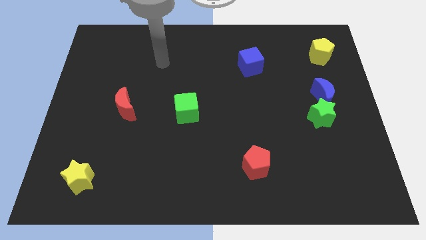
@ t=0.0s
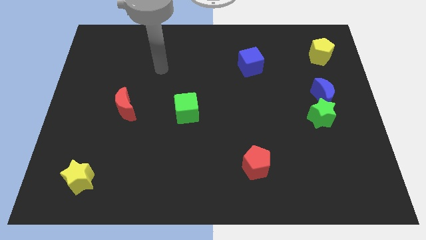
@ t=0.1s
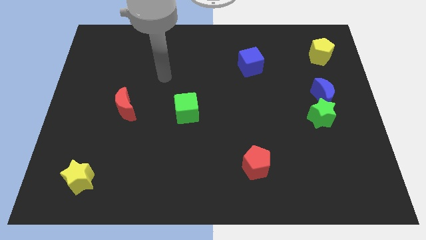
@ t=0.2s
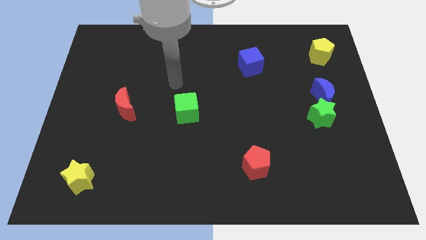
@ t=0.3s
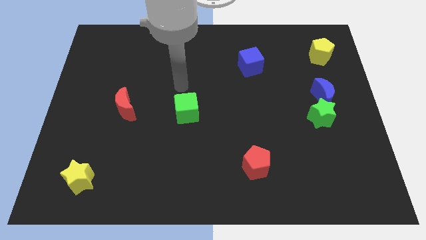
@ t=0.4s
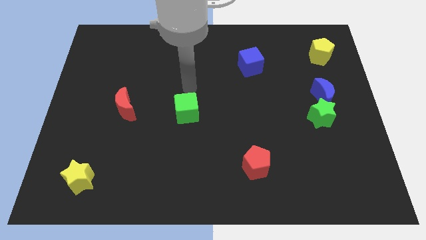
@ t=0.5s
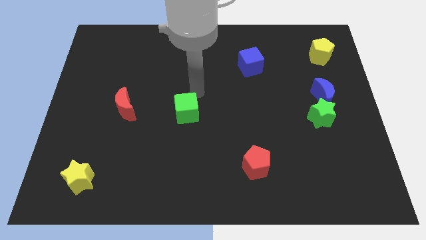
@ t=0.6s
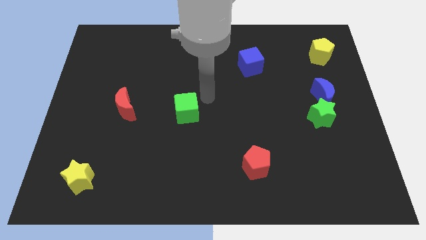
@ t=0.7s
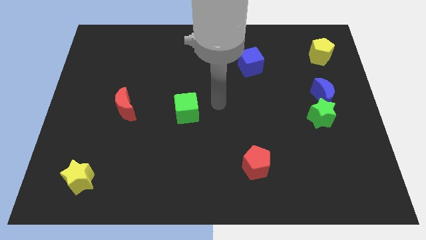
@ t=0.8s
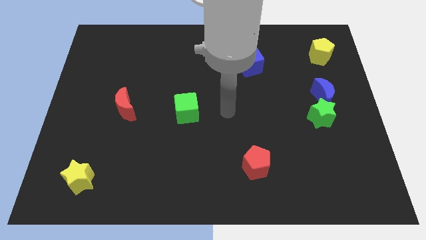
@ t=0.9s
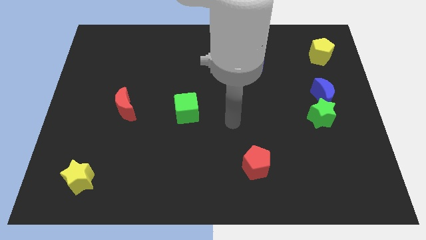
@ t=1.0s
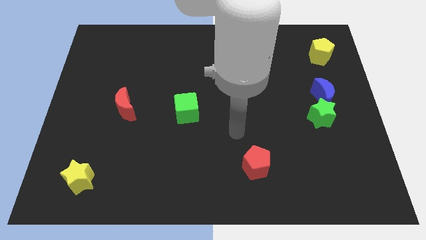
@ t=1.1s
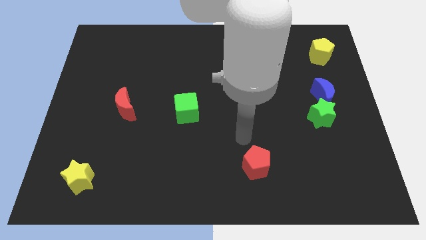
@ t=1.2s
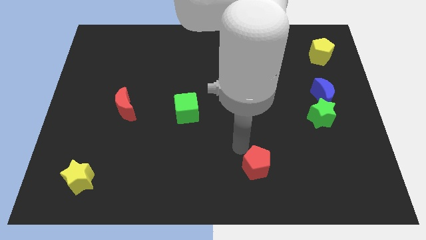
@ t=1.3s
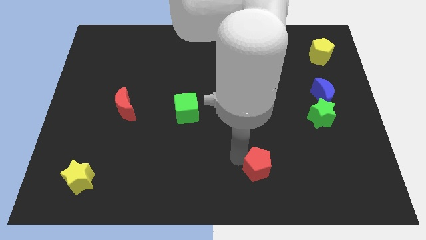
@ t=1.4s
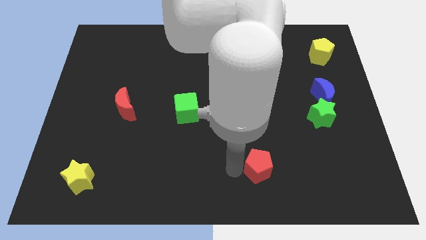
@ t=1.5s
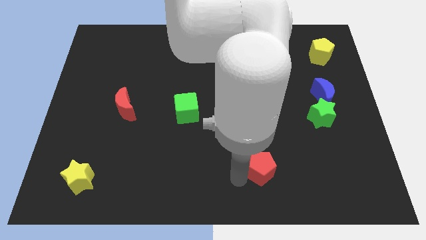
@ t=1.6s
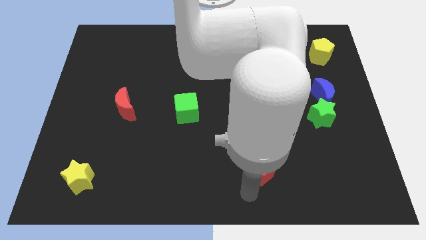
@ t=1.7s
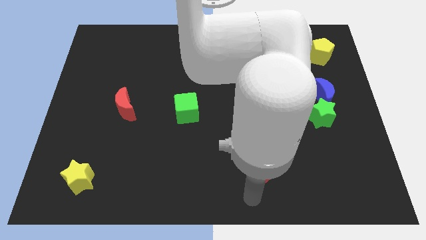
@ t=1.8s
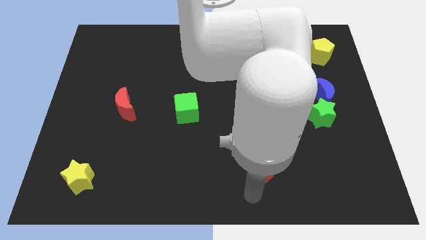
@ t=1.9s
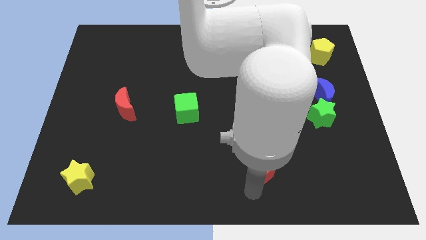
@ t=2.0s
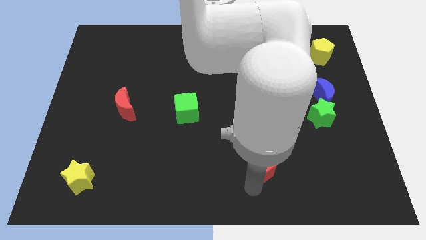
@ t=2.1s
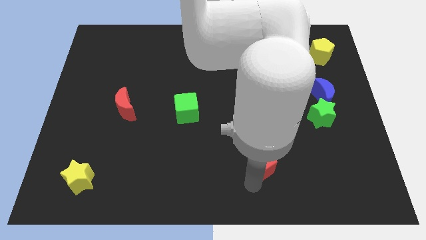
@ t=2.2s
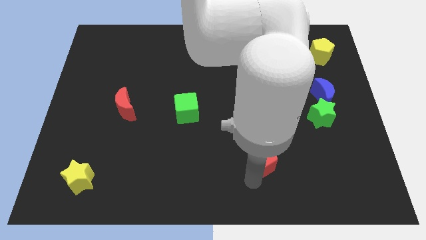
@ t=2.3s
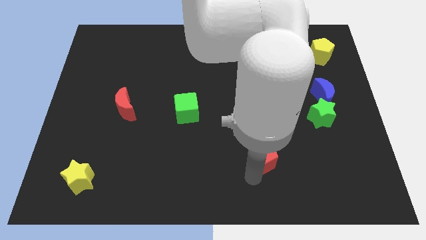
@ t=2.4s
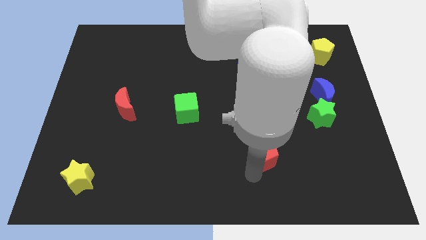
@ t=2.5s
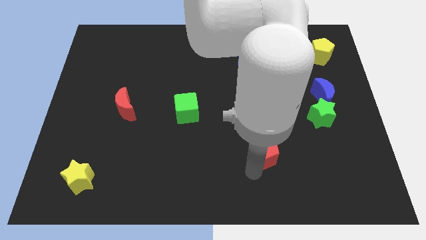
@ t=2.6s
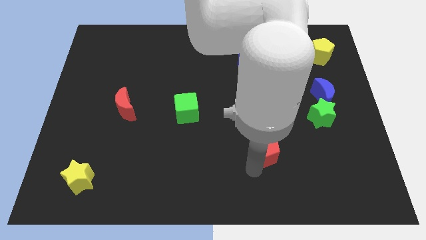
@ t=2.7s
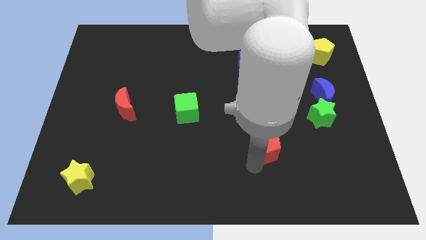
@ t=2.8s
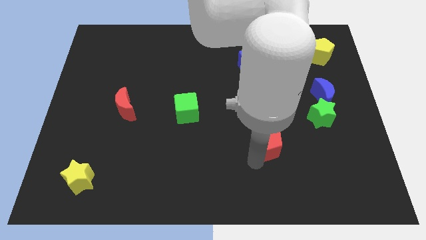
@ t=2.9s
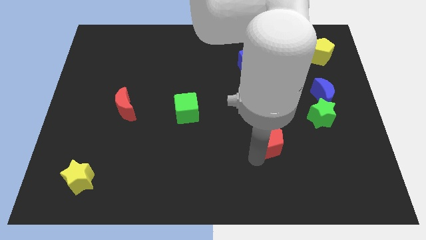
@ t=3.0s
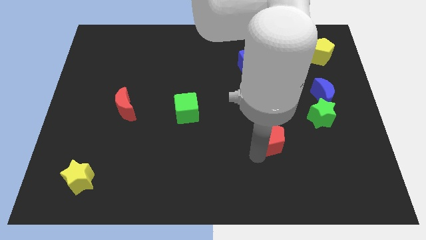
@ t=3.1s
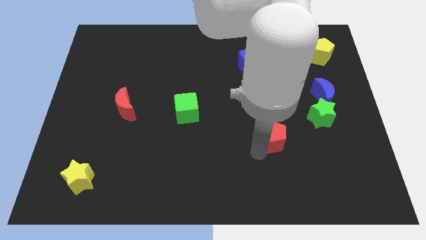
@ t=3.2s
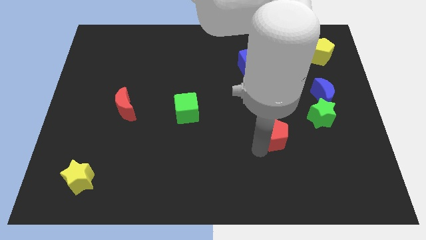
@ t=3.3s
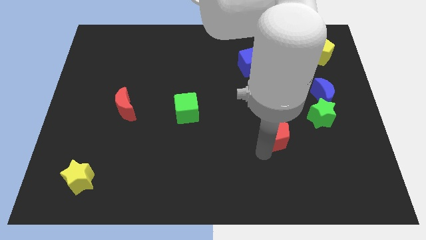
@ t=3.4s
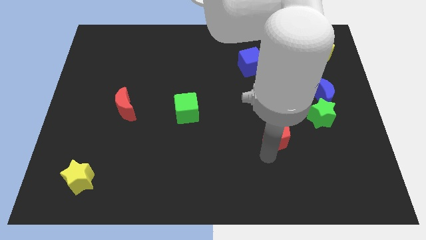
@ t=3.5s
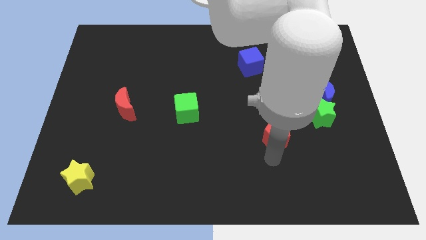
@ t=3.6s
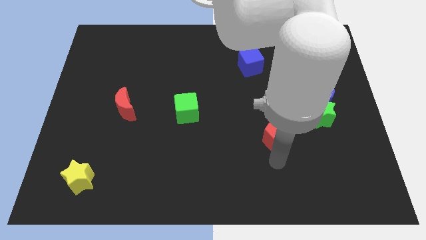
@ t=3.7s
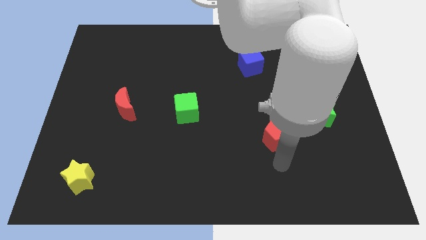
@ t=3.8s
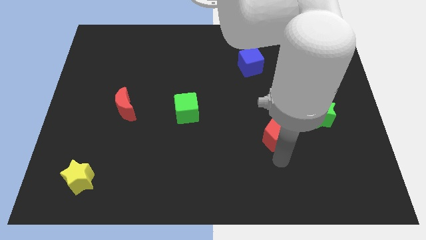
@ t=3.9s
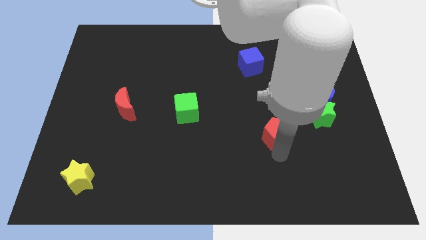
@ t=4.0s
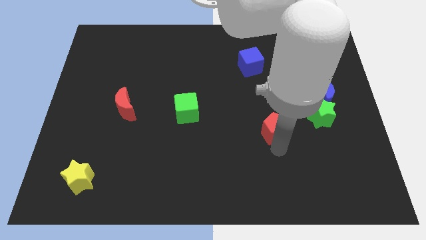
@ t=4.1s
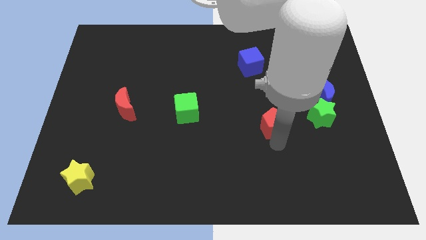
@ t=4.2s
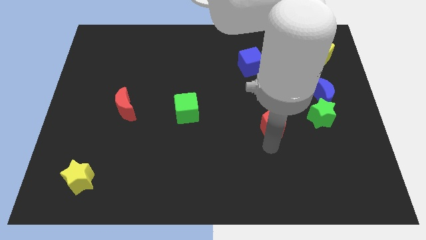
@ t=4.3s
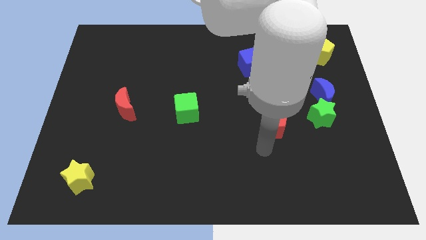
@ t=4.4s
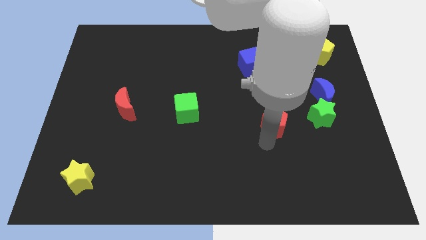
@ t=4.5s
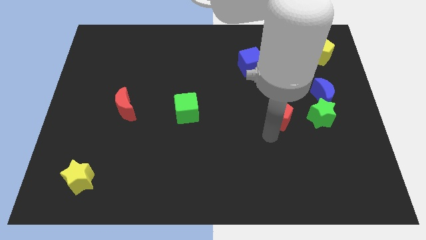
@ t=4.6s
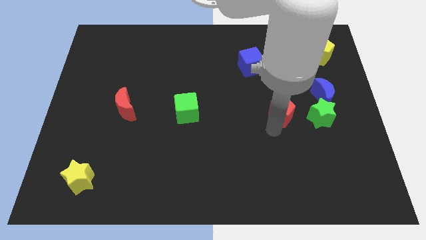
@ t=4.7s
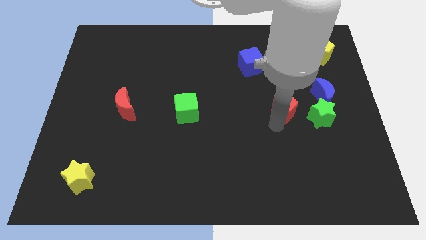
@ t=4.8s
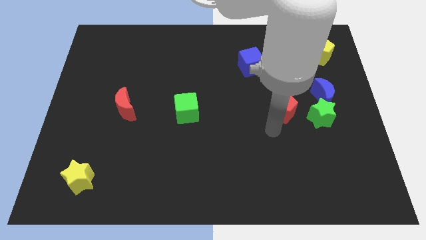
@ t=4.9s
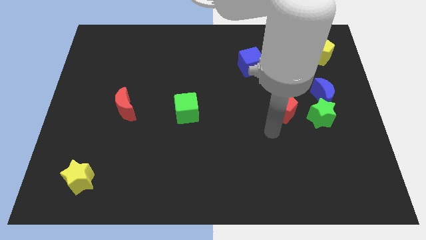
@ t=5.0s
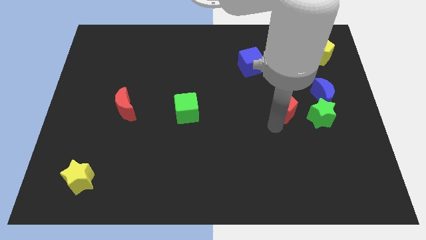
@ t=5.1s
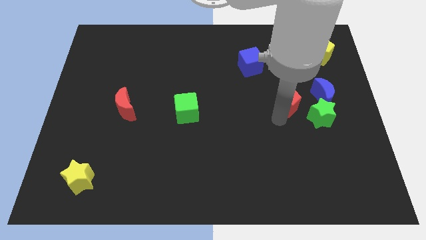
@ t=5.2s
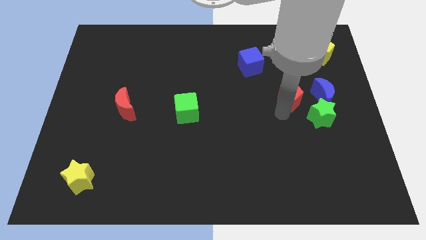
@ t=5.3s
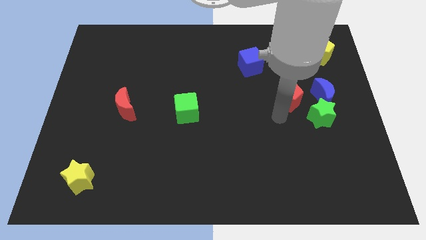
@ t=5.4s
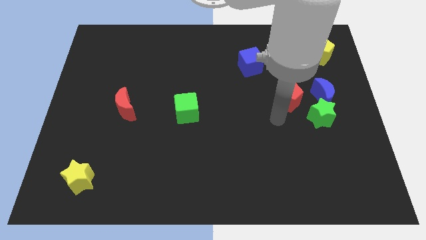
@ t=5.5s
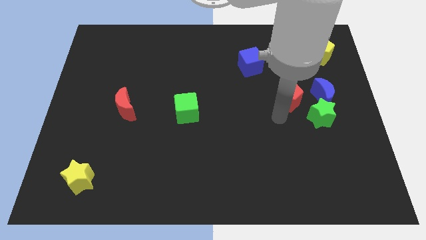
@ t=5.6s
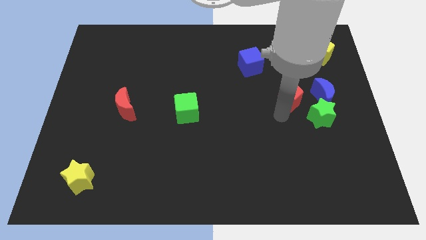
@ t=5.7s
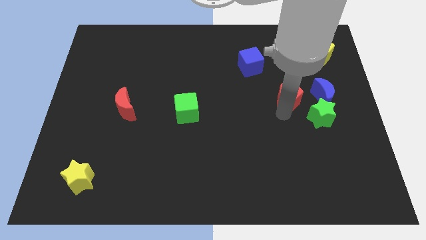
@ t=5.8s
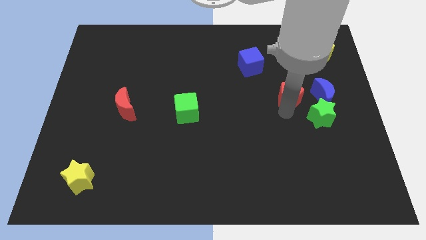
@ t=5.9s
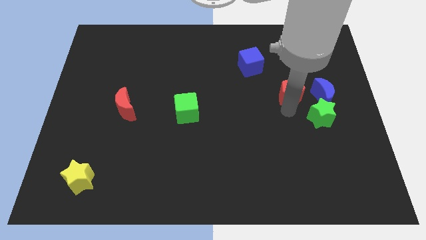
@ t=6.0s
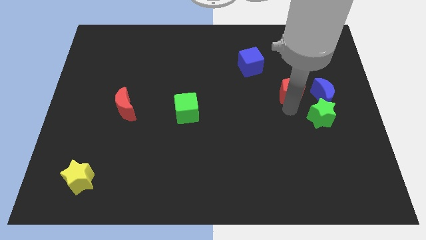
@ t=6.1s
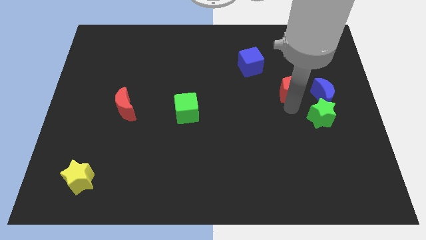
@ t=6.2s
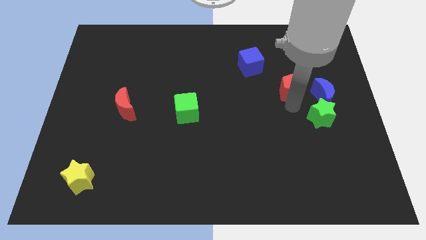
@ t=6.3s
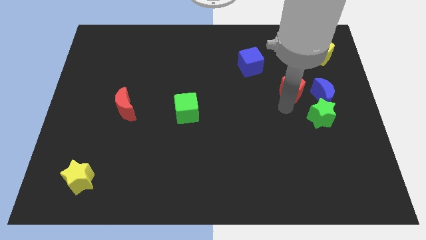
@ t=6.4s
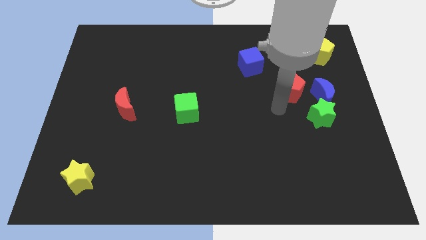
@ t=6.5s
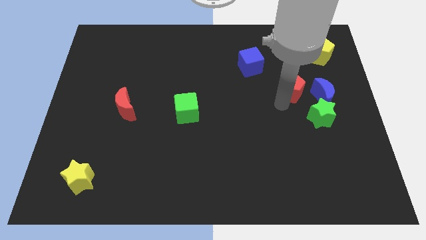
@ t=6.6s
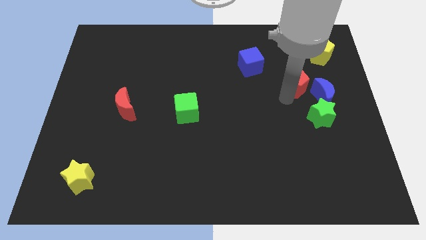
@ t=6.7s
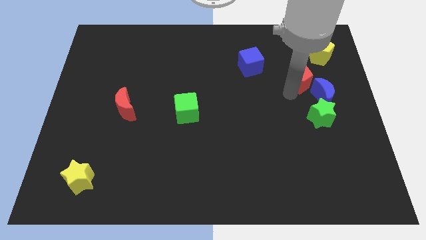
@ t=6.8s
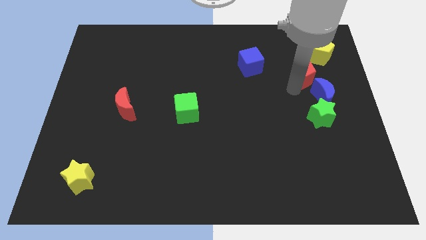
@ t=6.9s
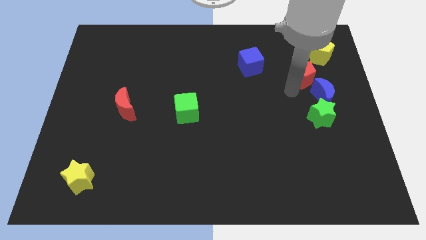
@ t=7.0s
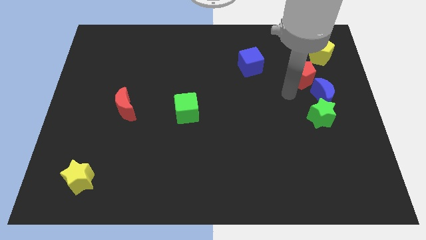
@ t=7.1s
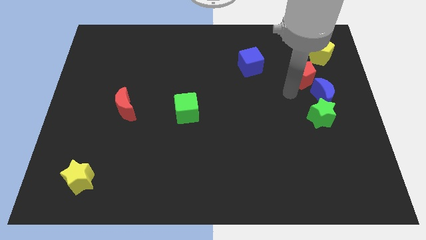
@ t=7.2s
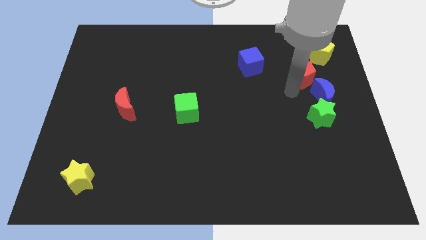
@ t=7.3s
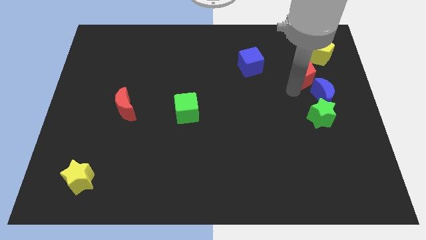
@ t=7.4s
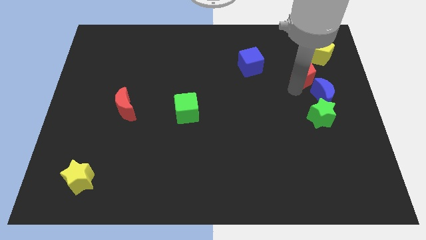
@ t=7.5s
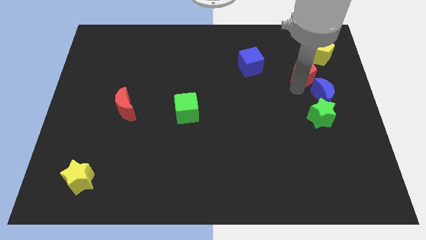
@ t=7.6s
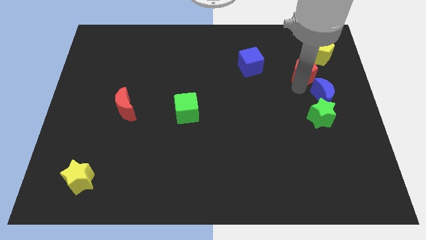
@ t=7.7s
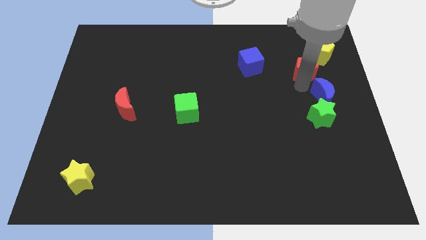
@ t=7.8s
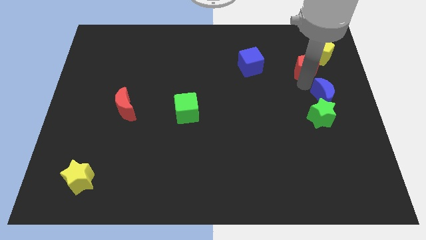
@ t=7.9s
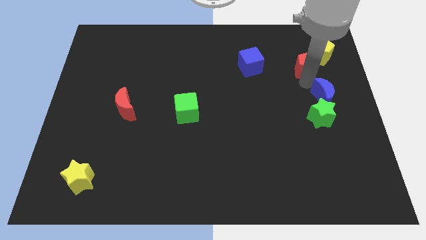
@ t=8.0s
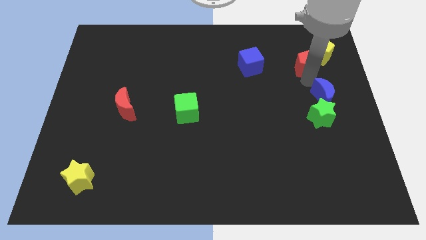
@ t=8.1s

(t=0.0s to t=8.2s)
move the red pentagon towards the yellow pentagon
